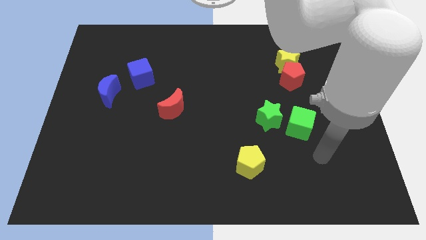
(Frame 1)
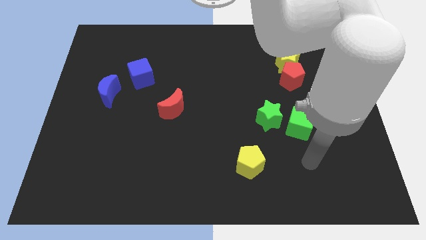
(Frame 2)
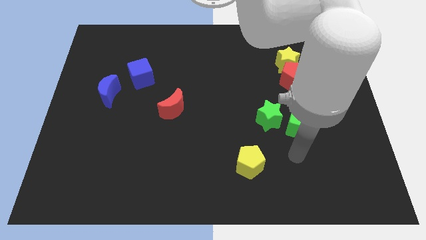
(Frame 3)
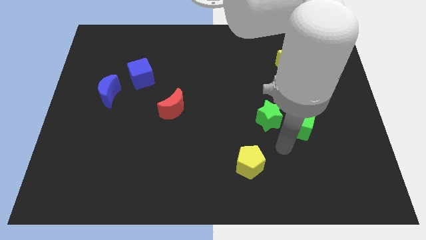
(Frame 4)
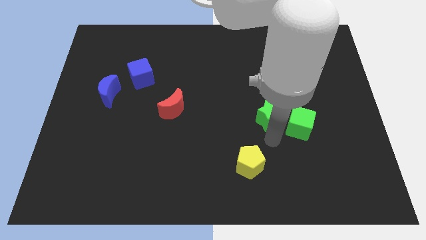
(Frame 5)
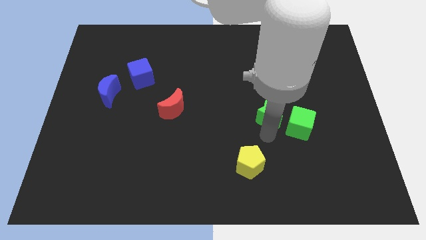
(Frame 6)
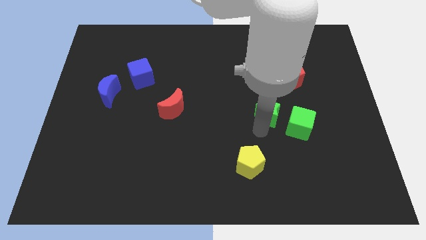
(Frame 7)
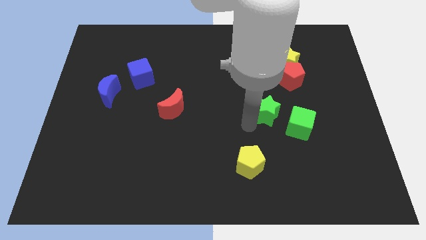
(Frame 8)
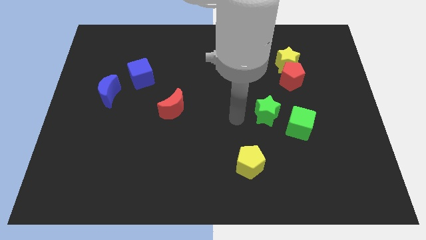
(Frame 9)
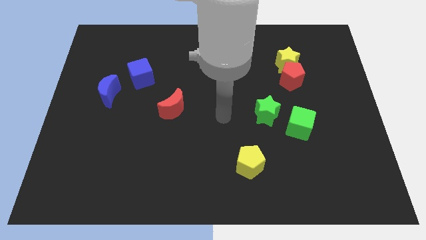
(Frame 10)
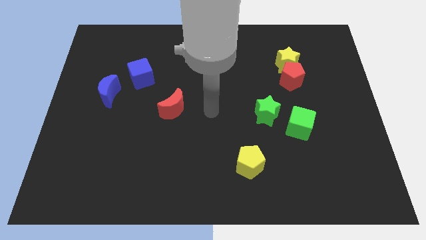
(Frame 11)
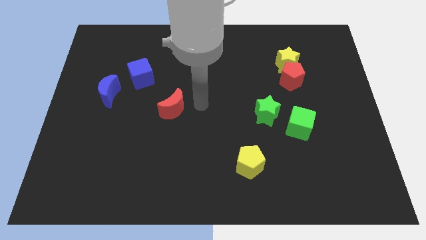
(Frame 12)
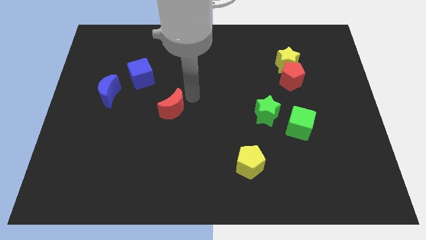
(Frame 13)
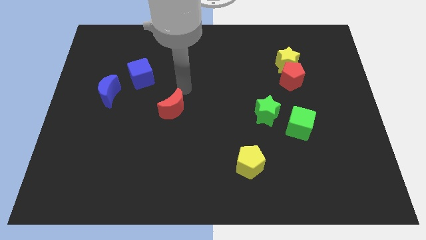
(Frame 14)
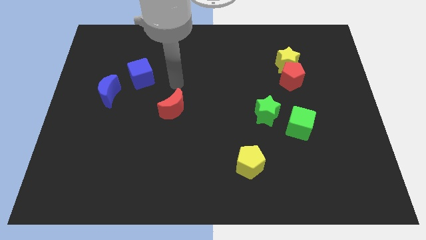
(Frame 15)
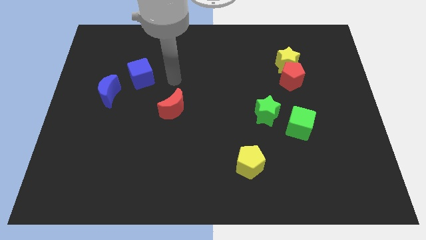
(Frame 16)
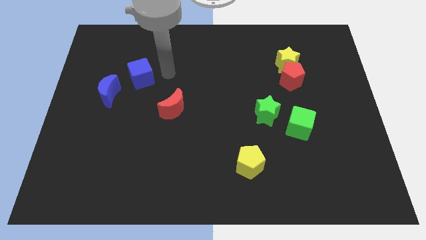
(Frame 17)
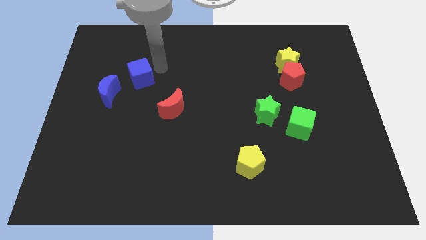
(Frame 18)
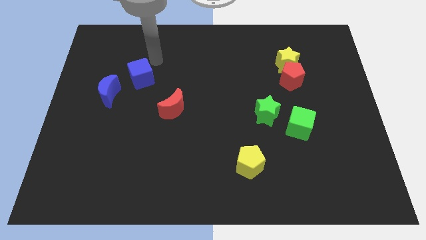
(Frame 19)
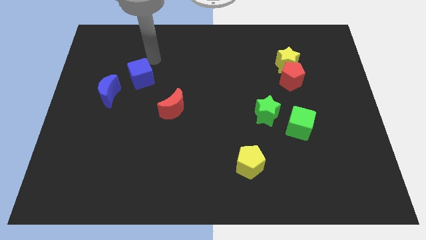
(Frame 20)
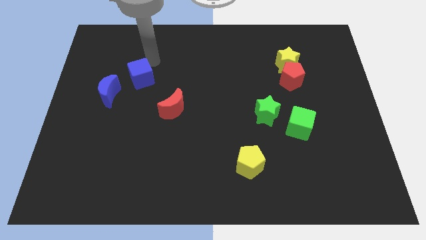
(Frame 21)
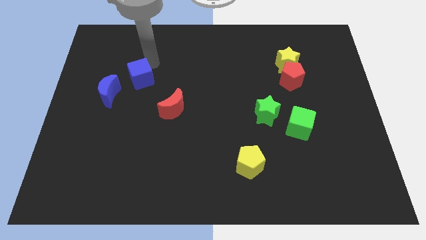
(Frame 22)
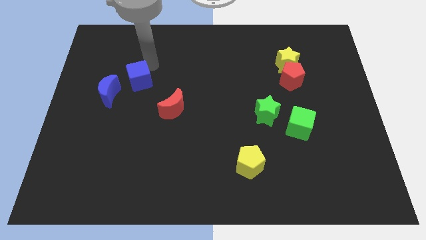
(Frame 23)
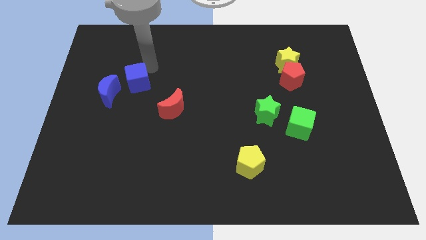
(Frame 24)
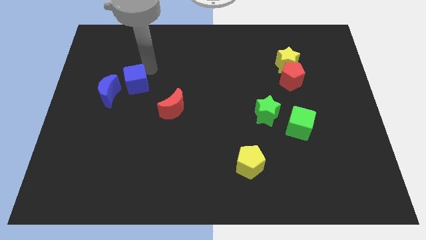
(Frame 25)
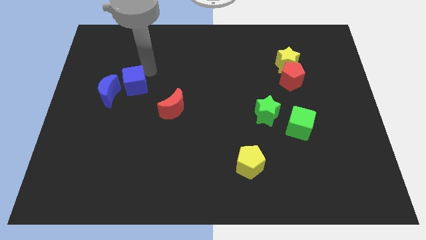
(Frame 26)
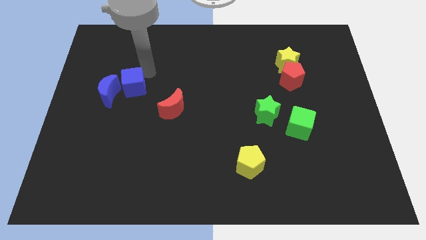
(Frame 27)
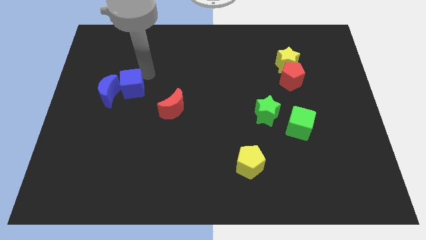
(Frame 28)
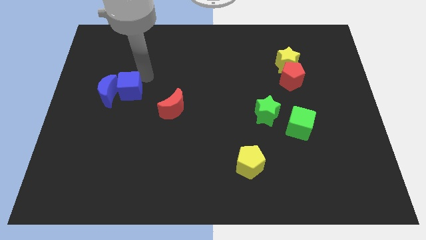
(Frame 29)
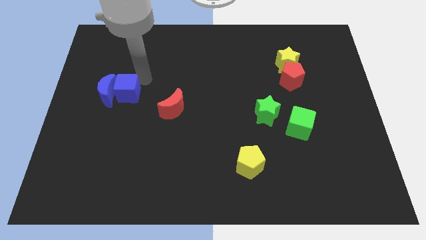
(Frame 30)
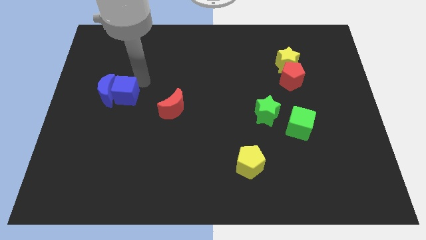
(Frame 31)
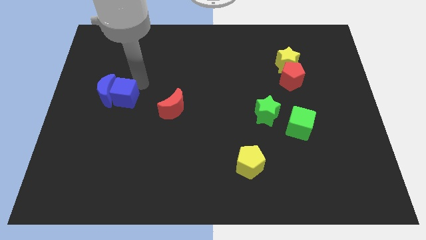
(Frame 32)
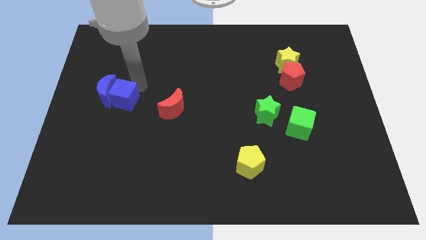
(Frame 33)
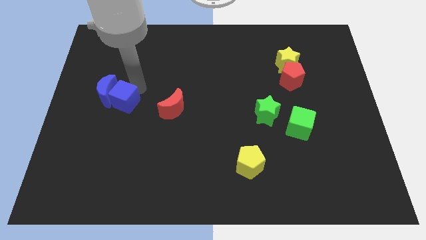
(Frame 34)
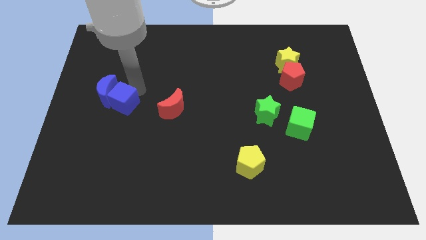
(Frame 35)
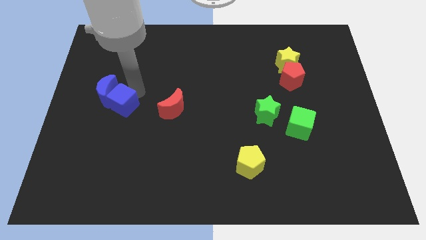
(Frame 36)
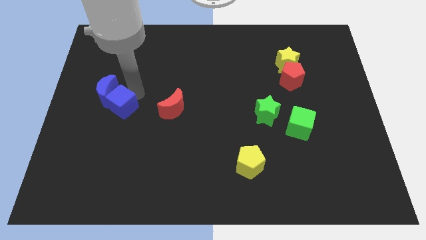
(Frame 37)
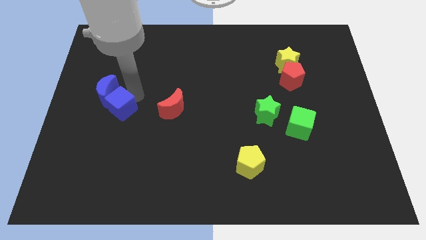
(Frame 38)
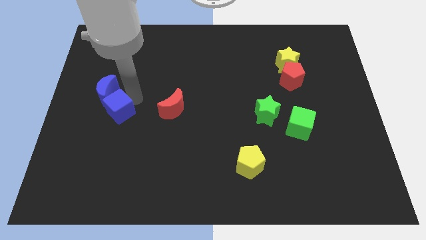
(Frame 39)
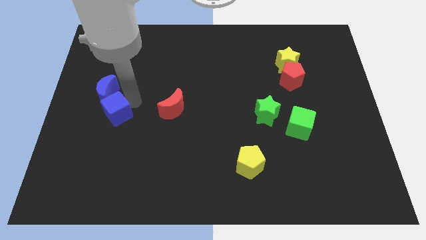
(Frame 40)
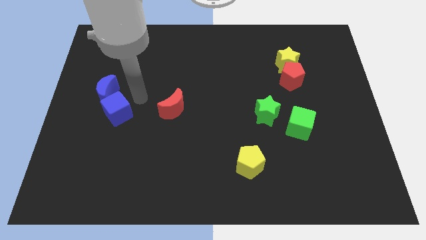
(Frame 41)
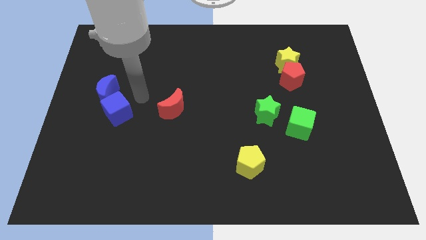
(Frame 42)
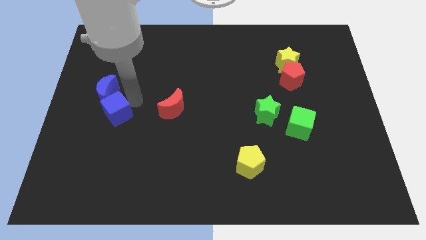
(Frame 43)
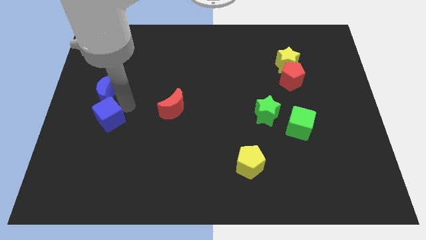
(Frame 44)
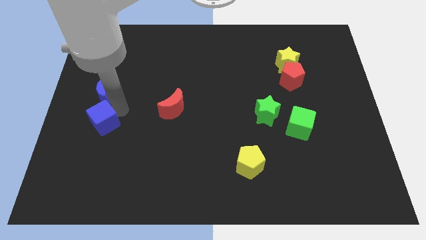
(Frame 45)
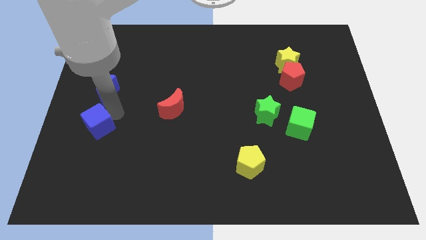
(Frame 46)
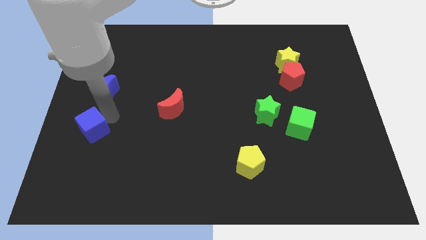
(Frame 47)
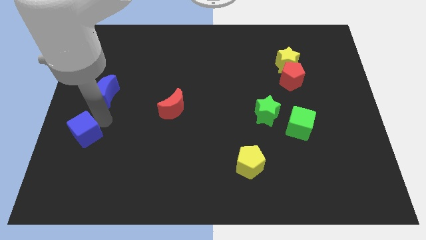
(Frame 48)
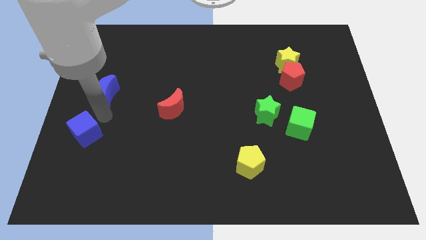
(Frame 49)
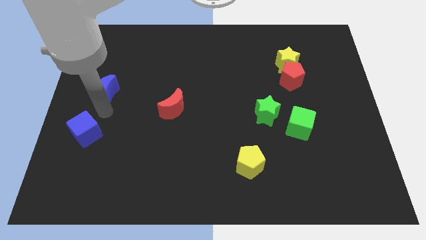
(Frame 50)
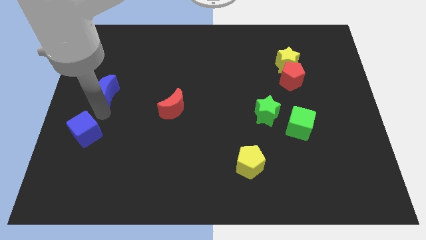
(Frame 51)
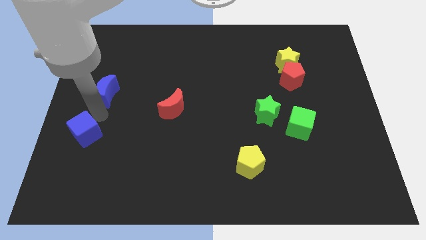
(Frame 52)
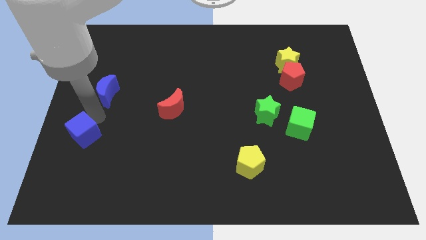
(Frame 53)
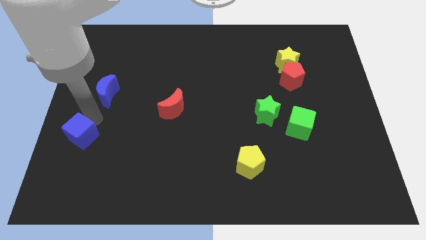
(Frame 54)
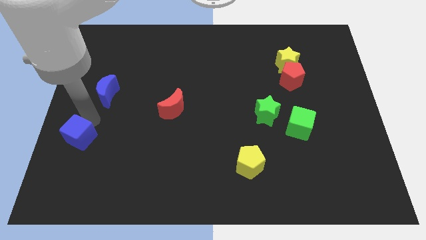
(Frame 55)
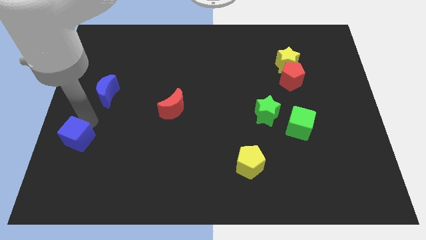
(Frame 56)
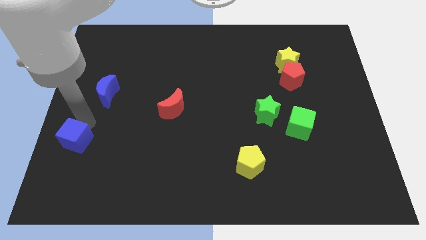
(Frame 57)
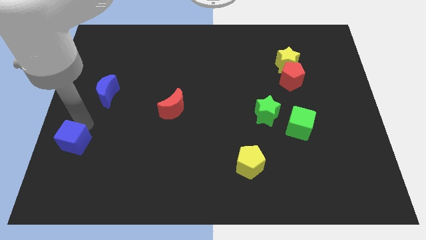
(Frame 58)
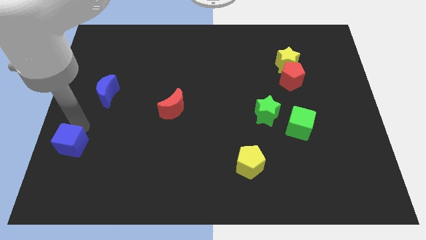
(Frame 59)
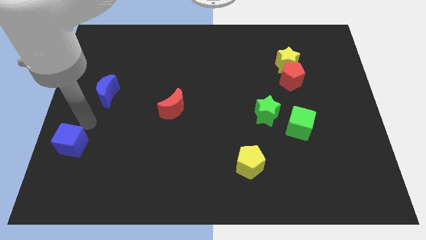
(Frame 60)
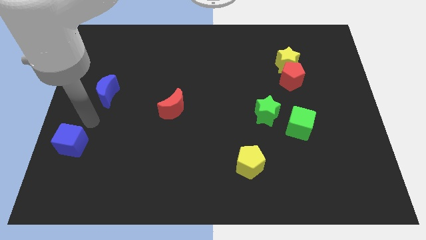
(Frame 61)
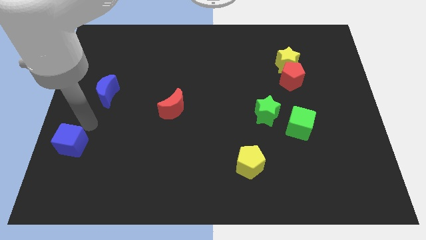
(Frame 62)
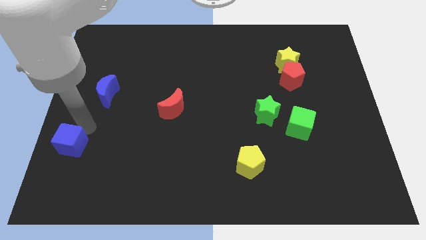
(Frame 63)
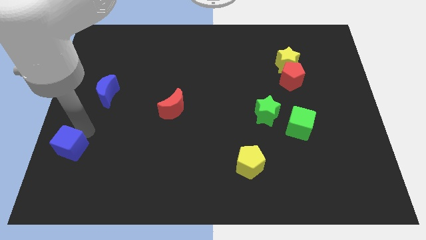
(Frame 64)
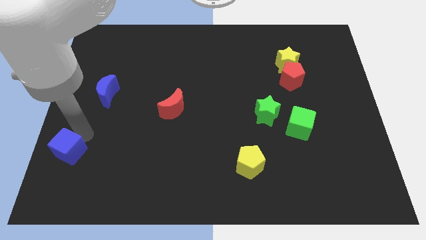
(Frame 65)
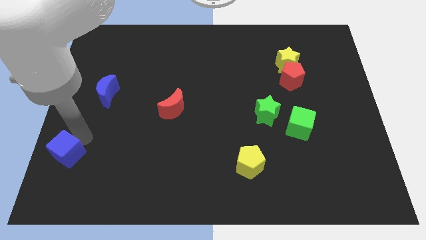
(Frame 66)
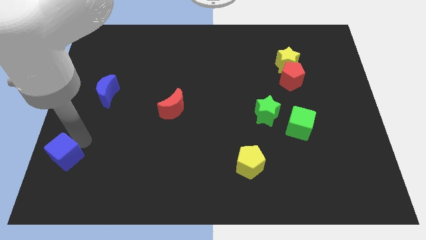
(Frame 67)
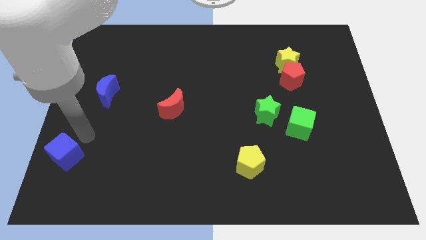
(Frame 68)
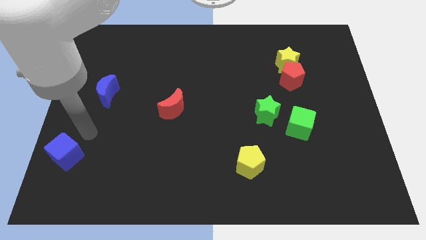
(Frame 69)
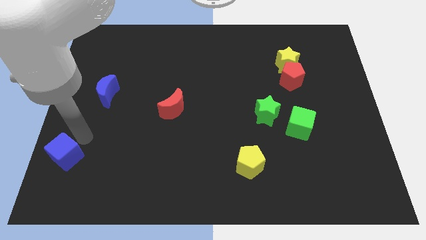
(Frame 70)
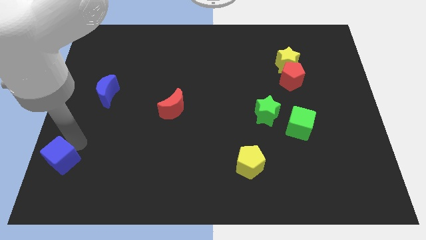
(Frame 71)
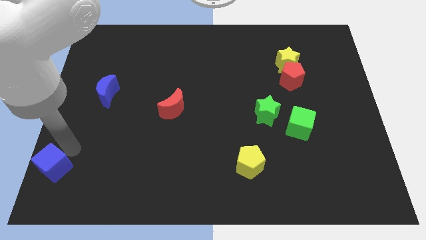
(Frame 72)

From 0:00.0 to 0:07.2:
put the blue cube to the bottom left of the board
